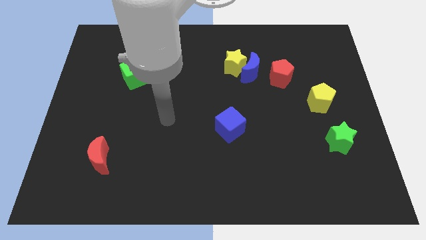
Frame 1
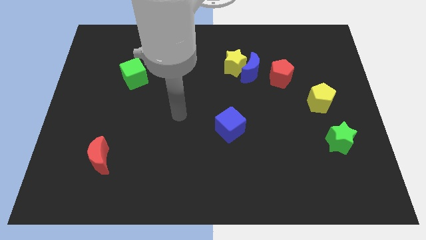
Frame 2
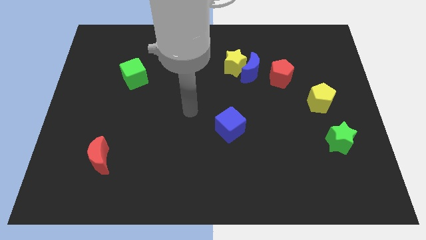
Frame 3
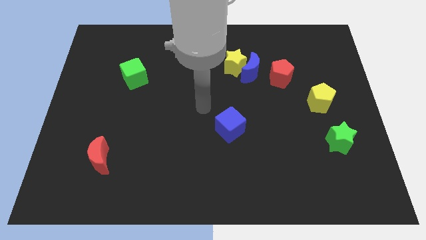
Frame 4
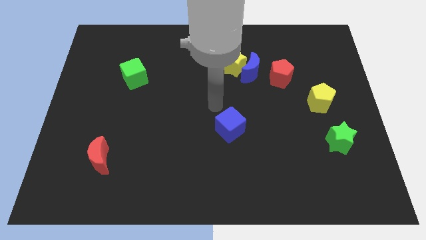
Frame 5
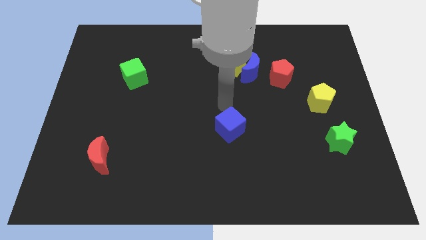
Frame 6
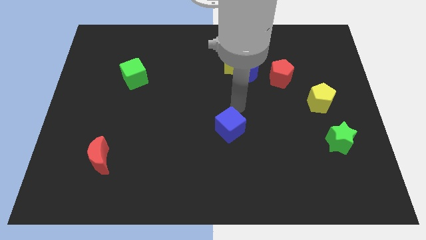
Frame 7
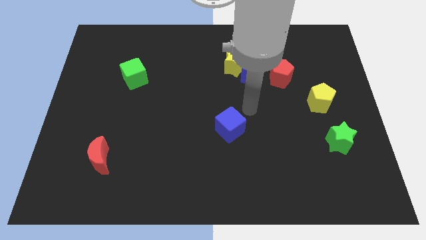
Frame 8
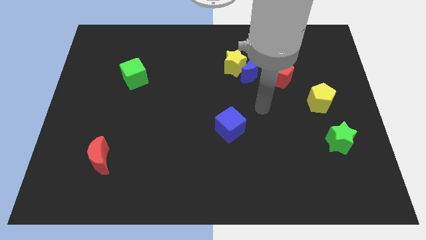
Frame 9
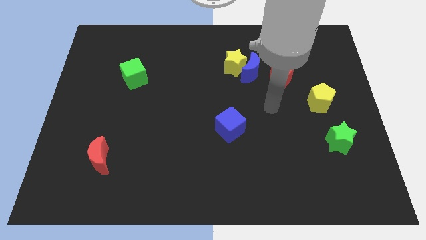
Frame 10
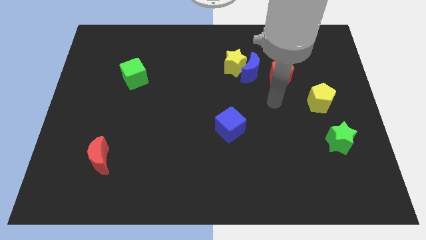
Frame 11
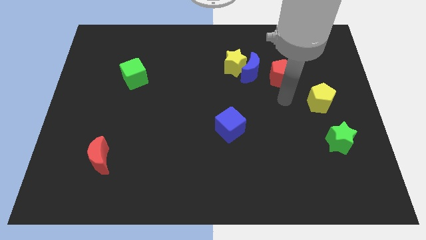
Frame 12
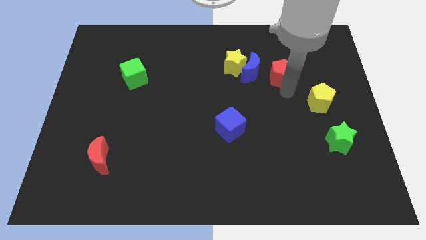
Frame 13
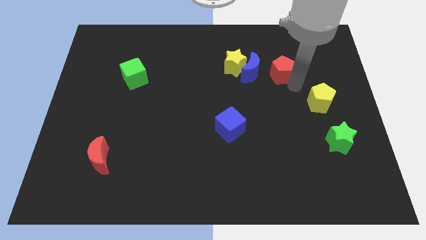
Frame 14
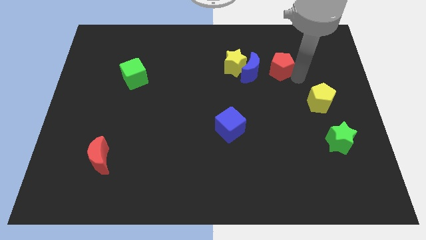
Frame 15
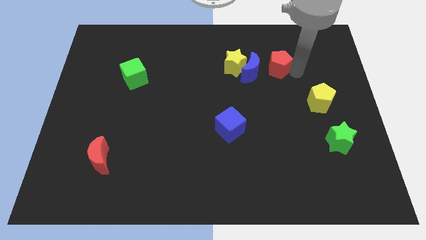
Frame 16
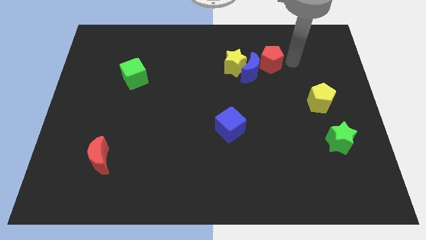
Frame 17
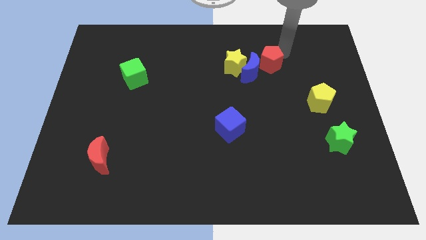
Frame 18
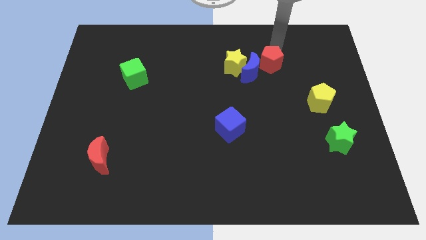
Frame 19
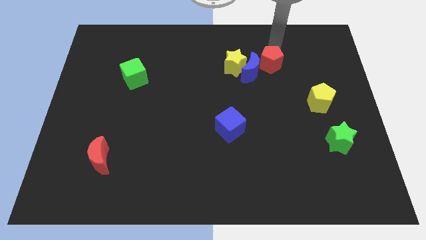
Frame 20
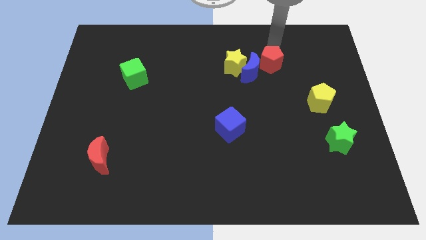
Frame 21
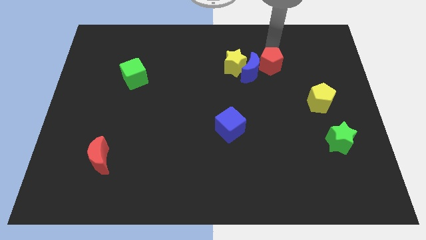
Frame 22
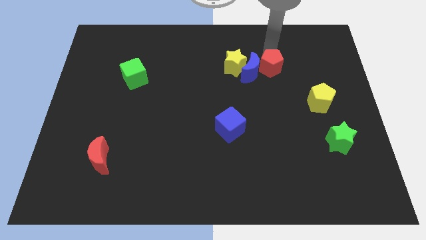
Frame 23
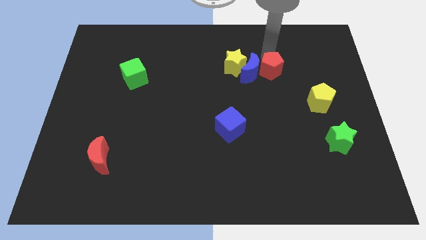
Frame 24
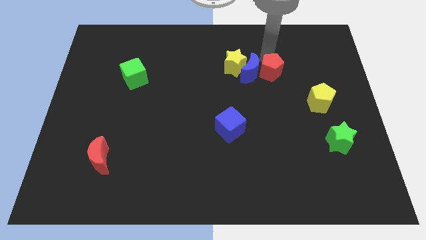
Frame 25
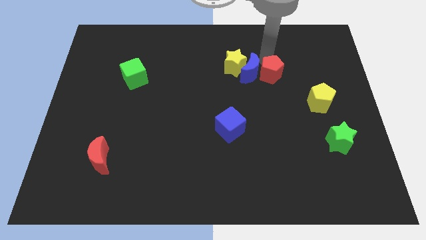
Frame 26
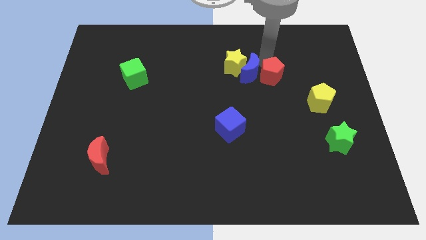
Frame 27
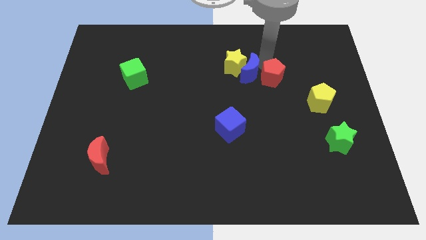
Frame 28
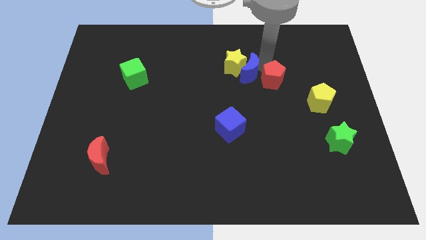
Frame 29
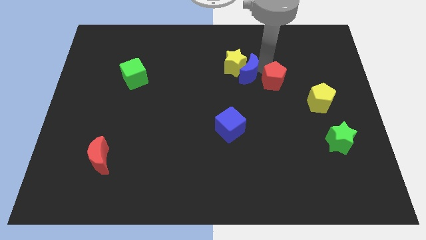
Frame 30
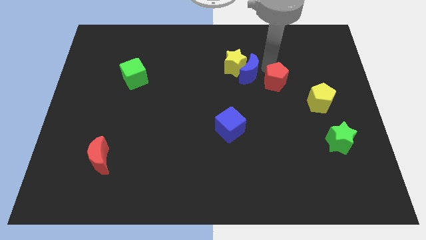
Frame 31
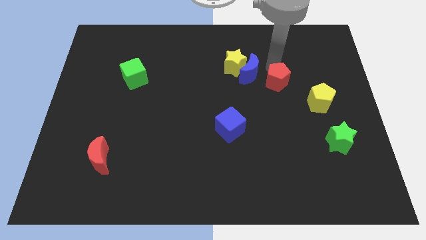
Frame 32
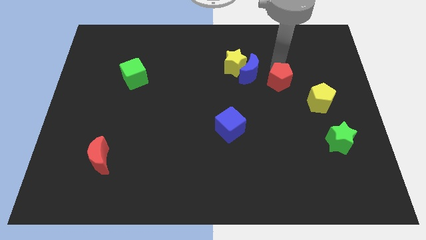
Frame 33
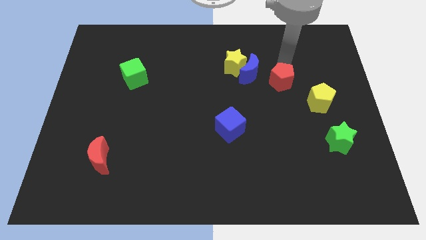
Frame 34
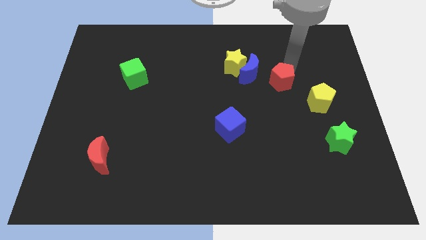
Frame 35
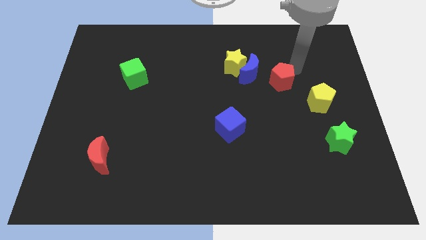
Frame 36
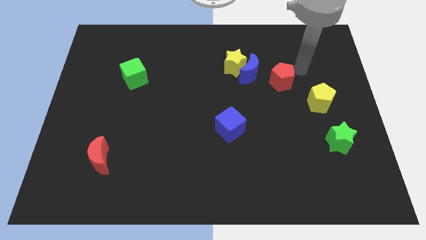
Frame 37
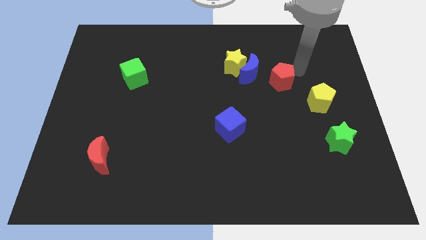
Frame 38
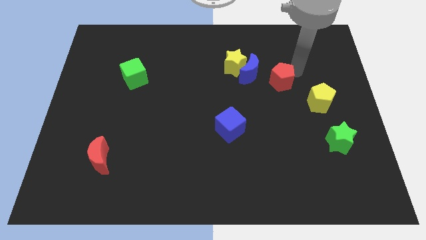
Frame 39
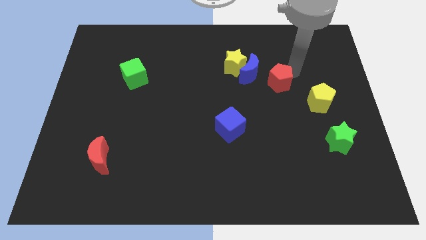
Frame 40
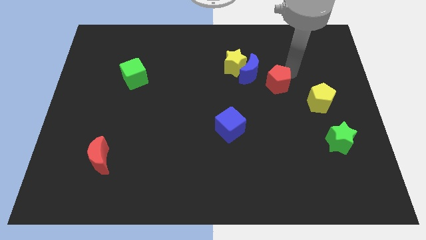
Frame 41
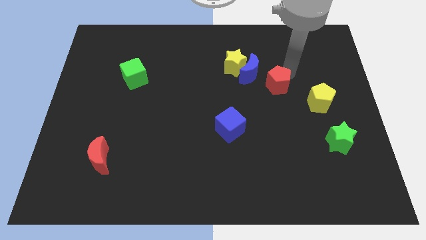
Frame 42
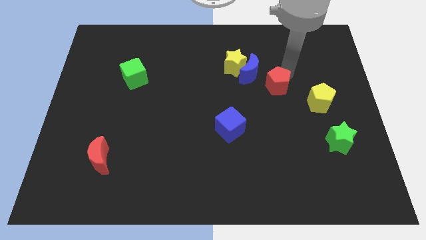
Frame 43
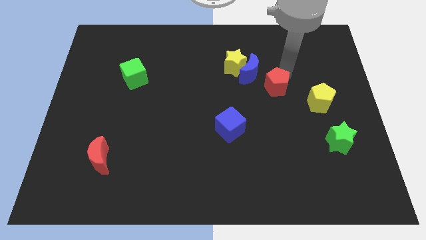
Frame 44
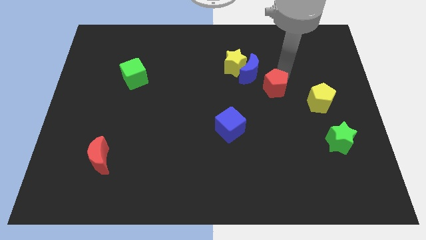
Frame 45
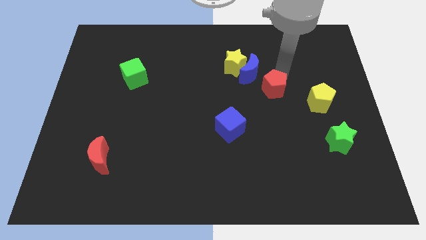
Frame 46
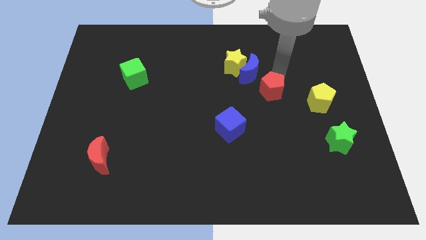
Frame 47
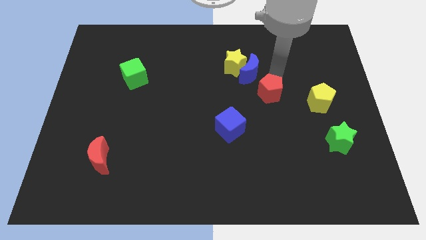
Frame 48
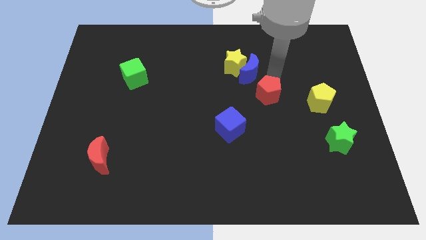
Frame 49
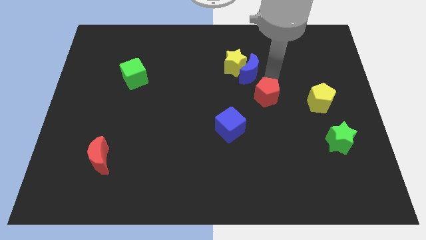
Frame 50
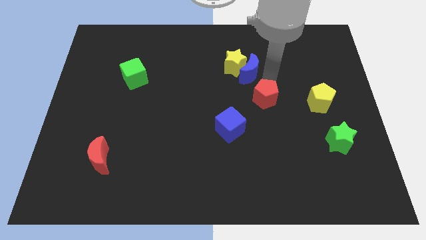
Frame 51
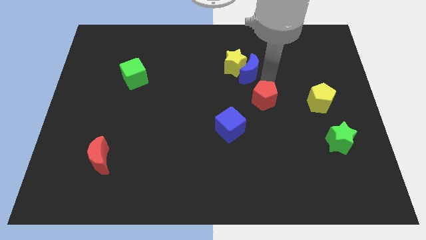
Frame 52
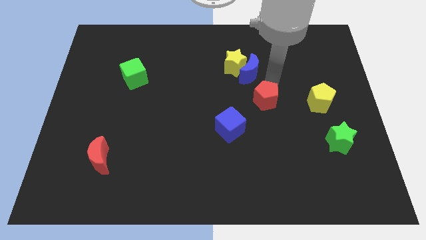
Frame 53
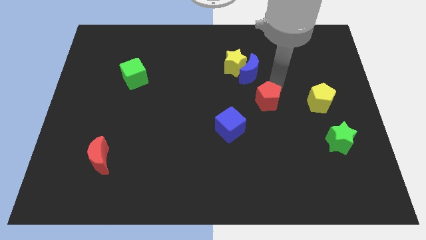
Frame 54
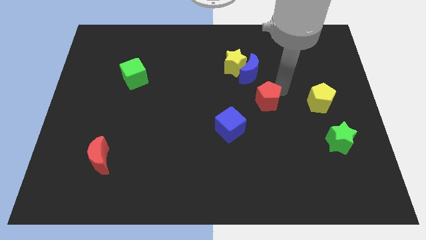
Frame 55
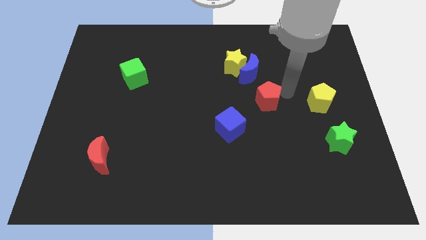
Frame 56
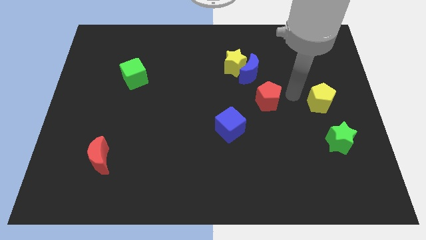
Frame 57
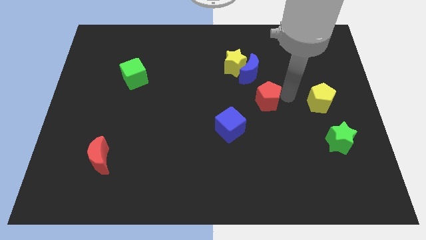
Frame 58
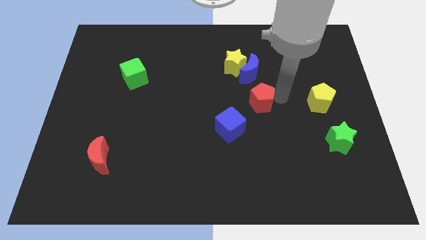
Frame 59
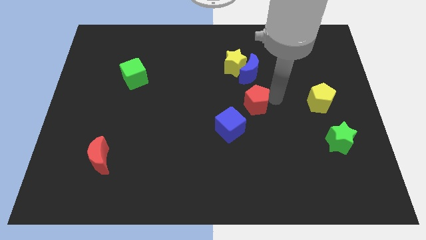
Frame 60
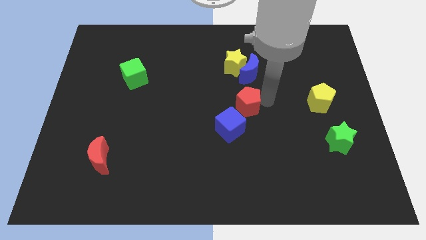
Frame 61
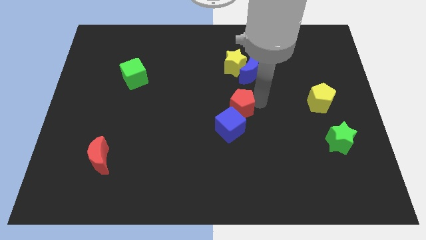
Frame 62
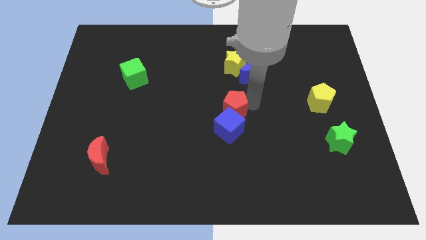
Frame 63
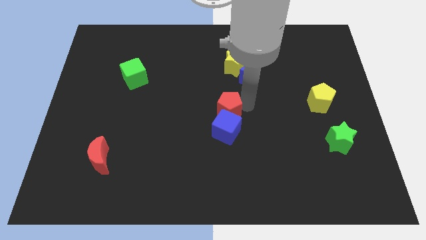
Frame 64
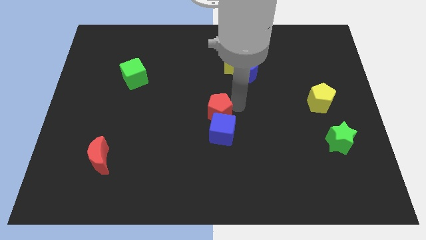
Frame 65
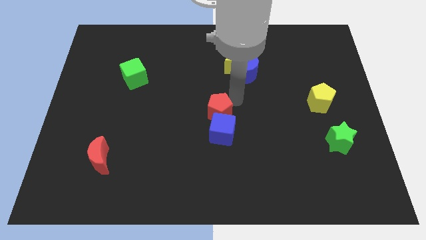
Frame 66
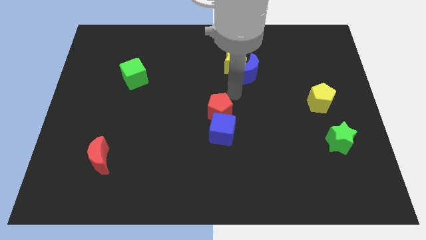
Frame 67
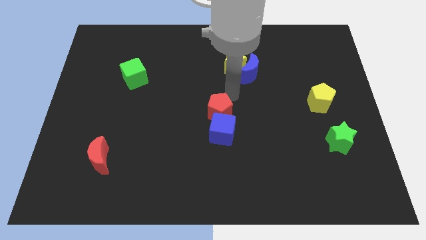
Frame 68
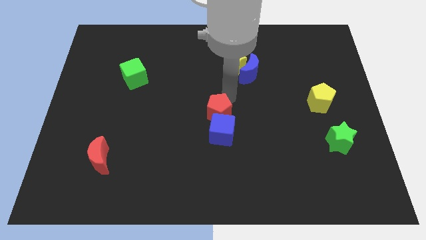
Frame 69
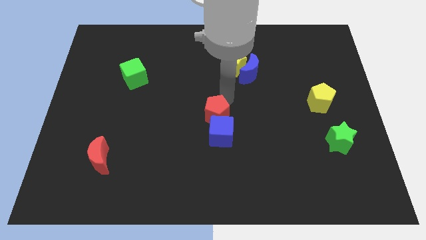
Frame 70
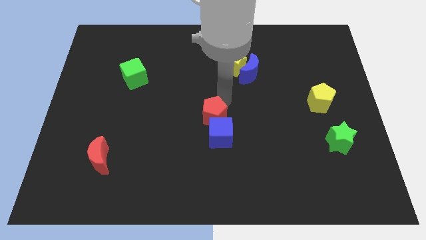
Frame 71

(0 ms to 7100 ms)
push the red pentagon diagonally down and to the left

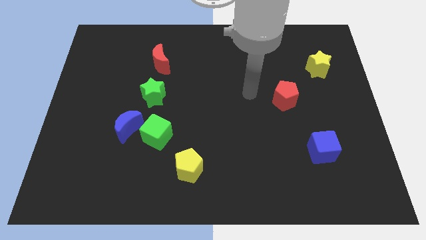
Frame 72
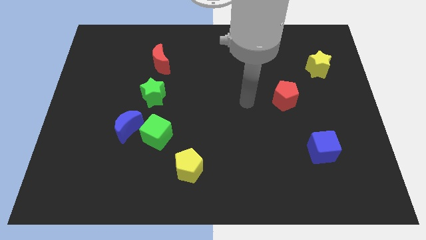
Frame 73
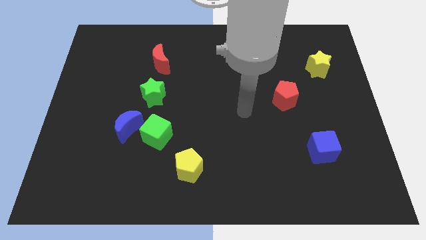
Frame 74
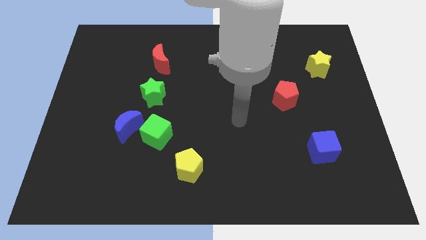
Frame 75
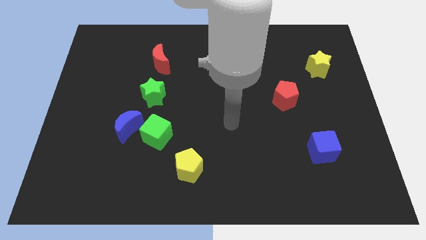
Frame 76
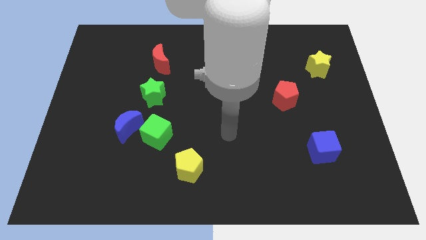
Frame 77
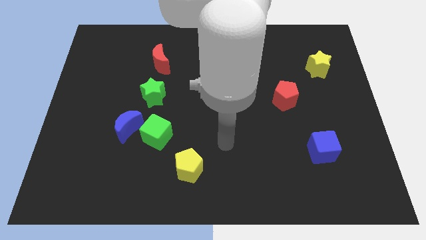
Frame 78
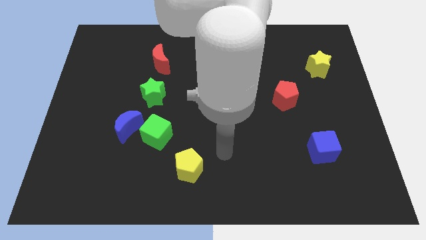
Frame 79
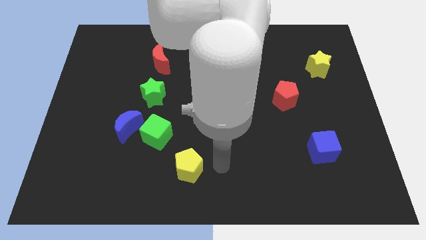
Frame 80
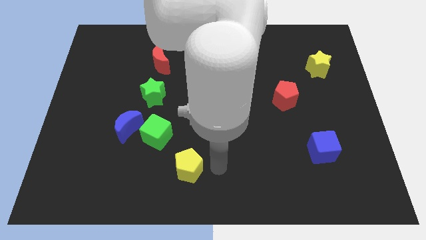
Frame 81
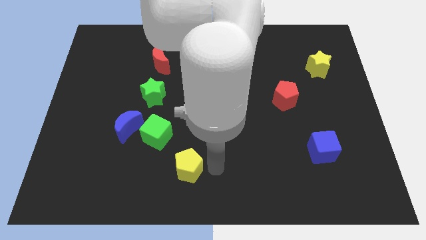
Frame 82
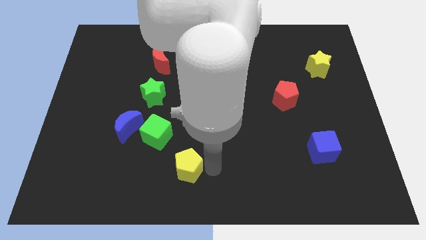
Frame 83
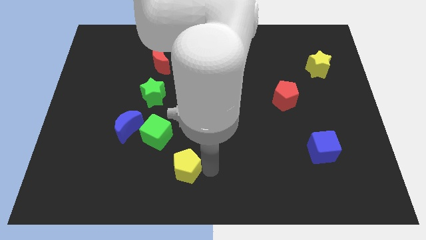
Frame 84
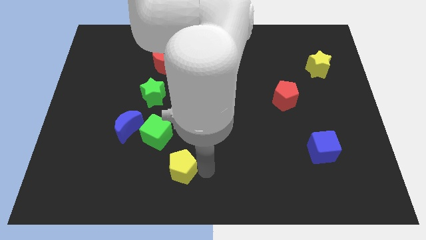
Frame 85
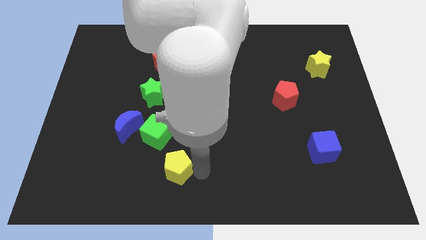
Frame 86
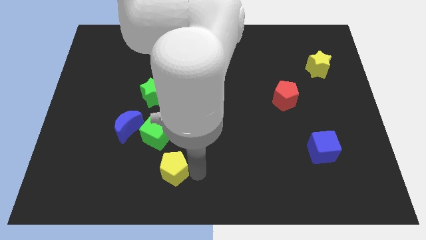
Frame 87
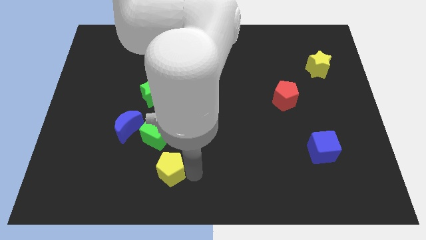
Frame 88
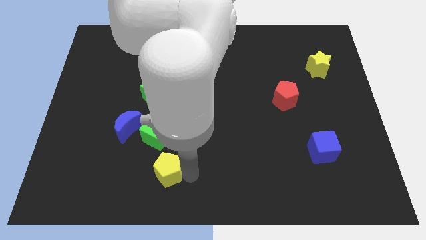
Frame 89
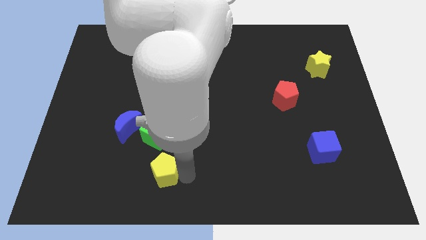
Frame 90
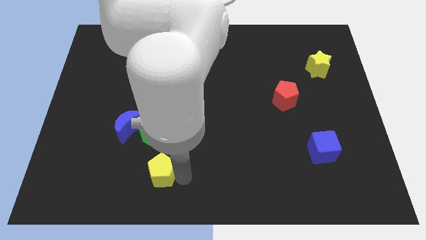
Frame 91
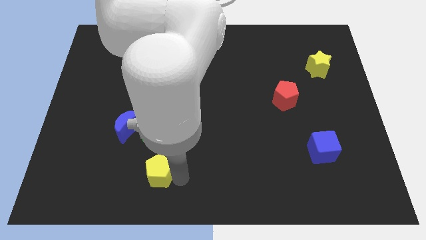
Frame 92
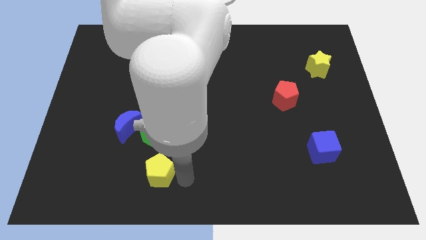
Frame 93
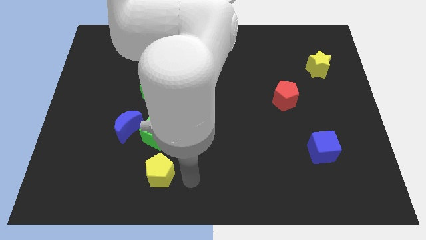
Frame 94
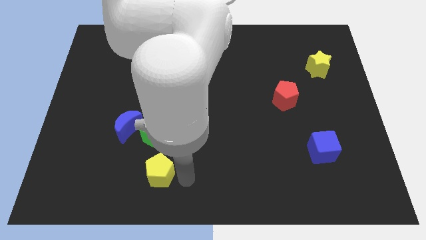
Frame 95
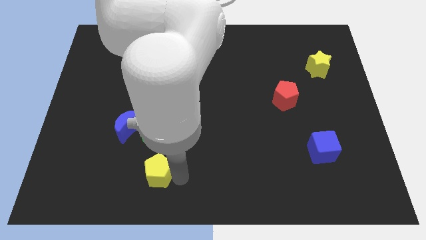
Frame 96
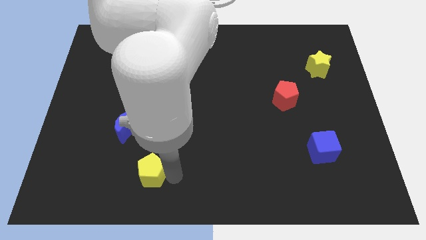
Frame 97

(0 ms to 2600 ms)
slide the yellow pentagon slightly left
